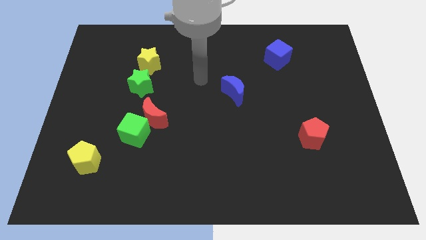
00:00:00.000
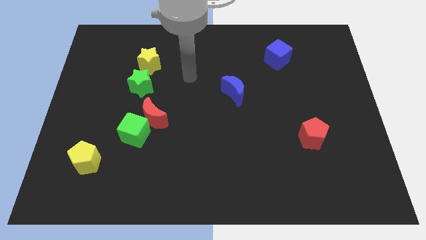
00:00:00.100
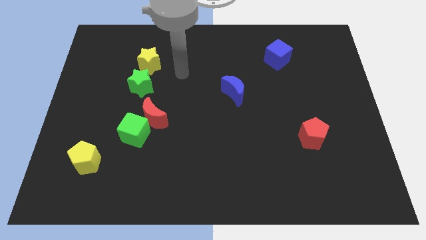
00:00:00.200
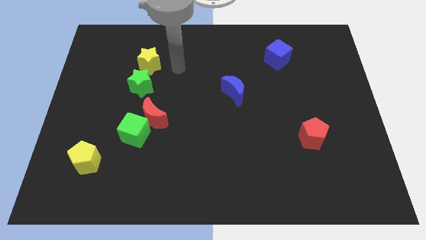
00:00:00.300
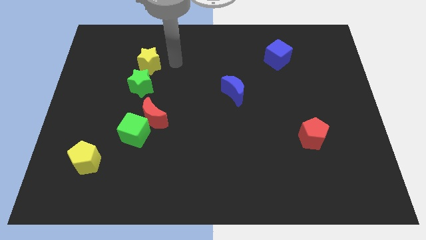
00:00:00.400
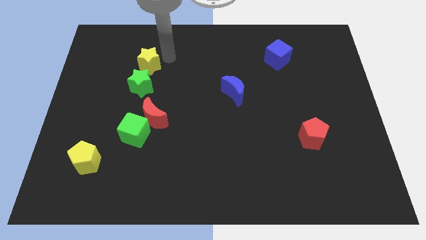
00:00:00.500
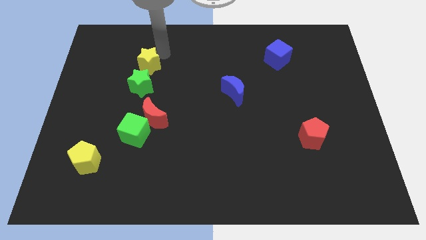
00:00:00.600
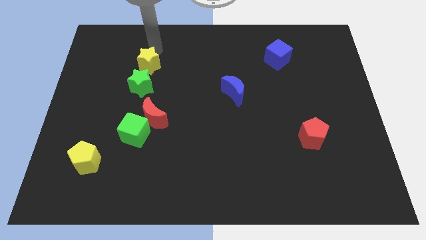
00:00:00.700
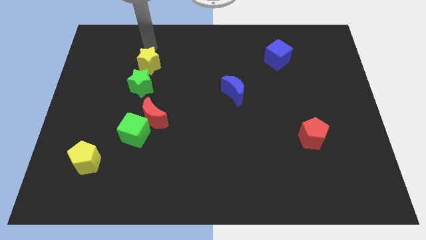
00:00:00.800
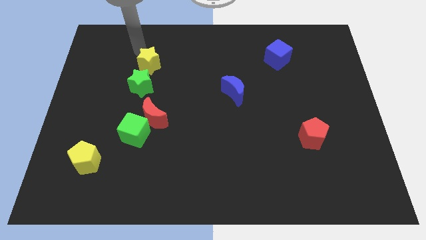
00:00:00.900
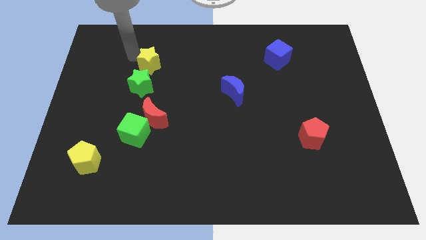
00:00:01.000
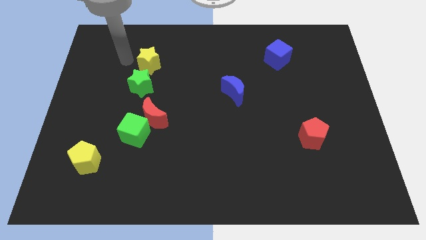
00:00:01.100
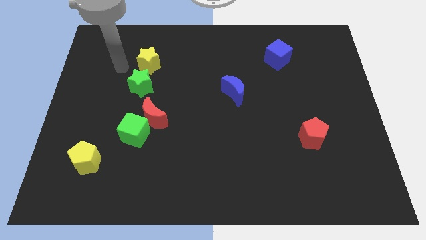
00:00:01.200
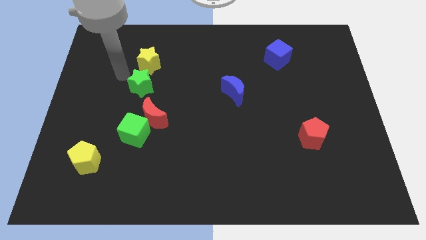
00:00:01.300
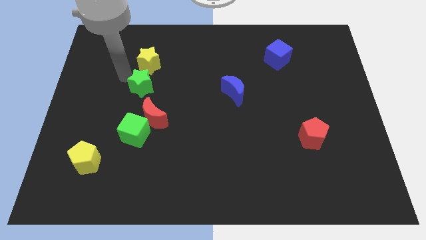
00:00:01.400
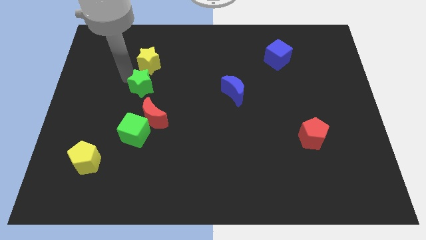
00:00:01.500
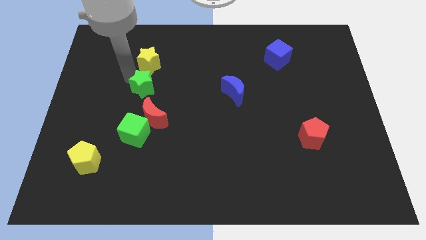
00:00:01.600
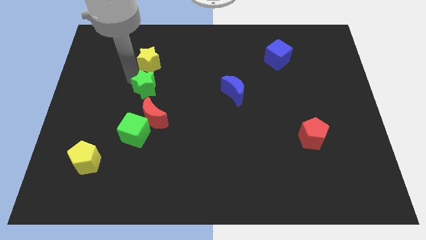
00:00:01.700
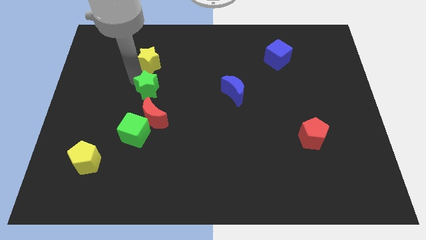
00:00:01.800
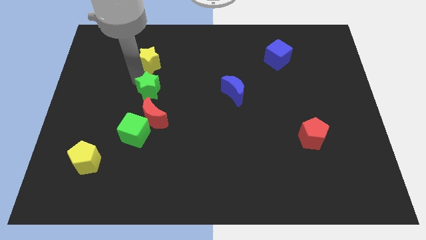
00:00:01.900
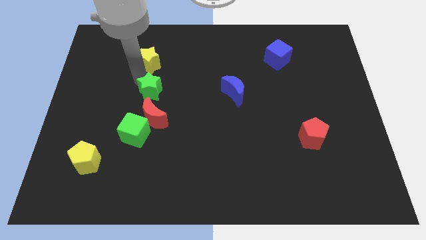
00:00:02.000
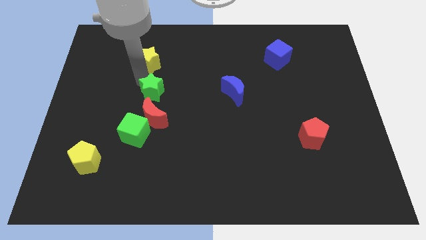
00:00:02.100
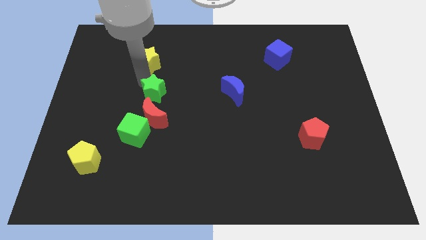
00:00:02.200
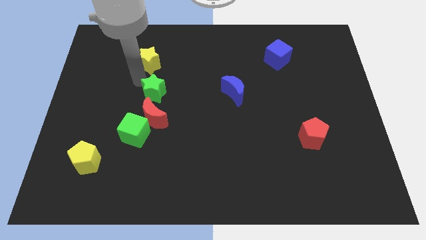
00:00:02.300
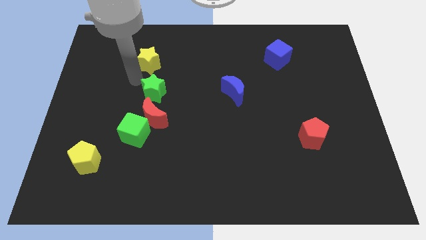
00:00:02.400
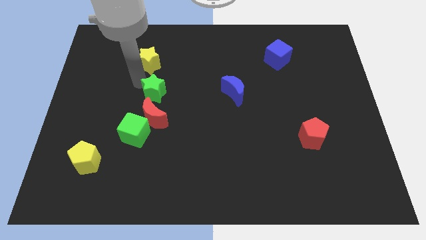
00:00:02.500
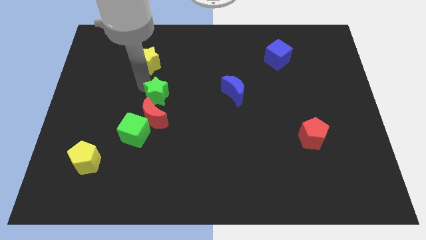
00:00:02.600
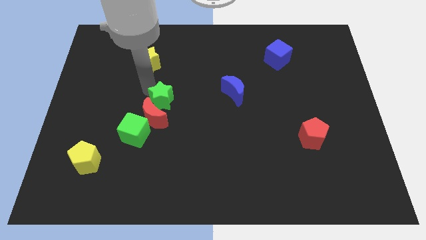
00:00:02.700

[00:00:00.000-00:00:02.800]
slightly slide the green star diagonally downwards and right

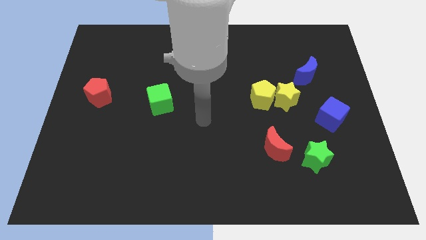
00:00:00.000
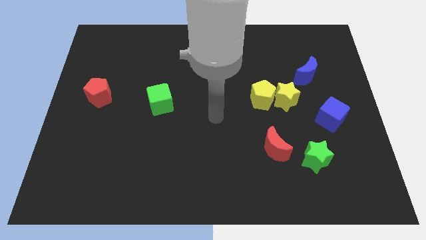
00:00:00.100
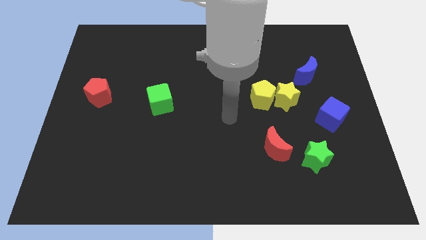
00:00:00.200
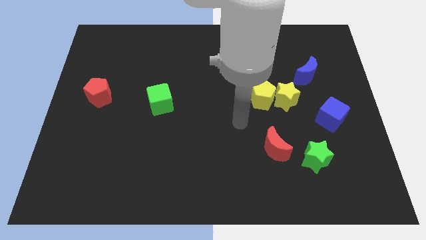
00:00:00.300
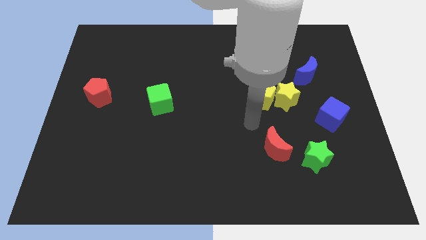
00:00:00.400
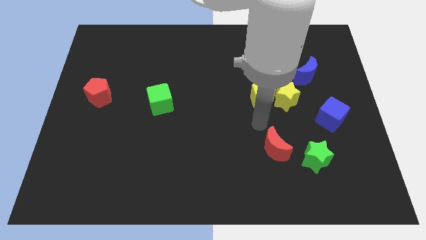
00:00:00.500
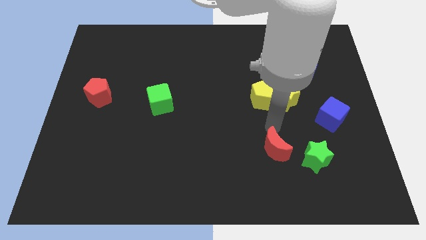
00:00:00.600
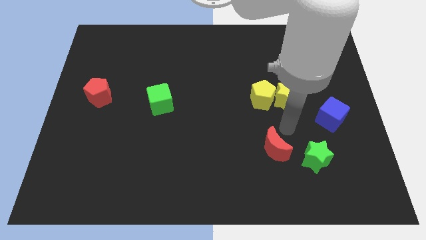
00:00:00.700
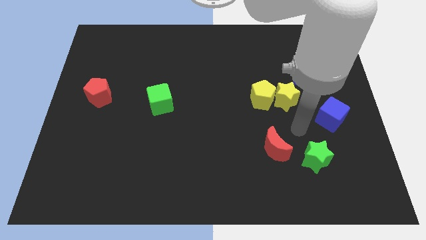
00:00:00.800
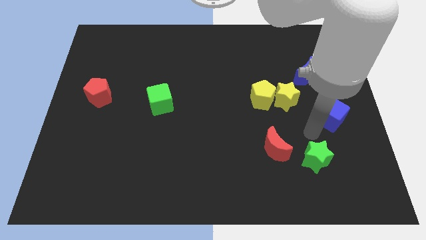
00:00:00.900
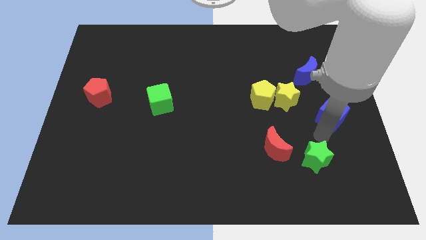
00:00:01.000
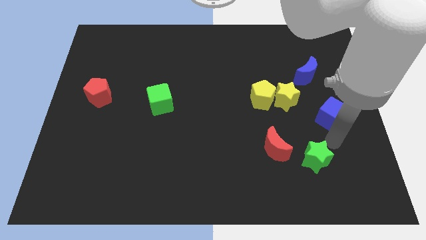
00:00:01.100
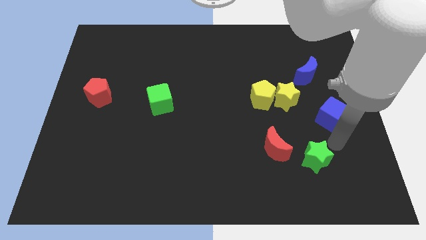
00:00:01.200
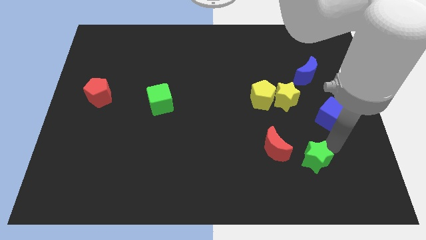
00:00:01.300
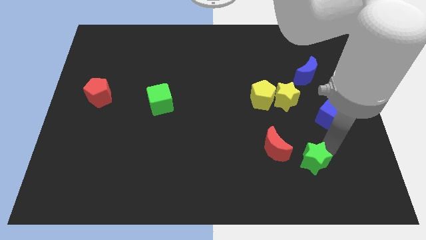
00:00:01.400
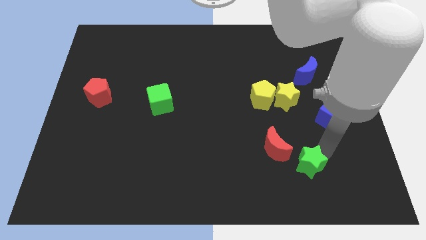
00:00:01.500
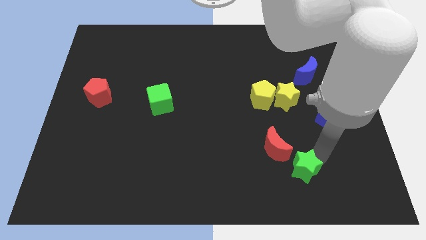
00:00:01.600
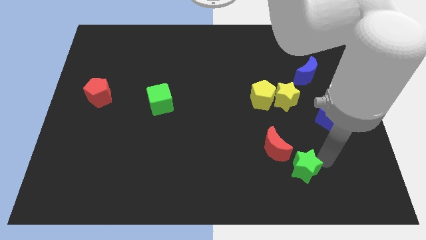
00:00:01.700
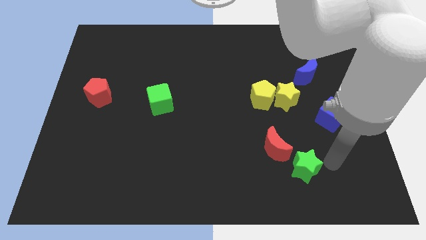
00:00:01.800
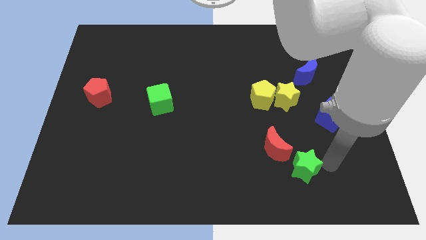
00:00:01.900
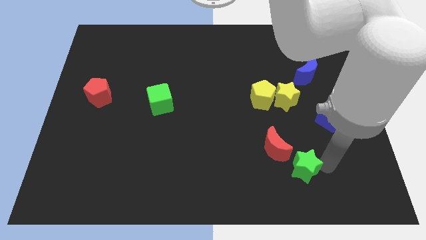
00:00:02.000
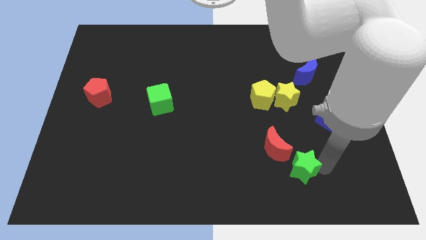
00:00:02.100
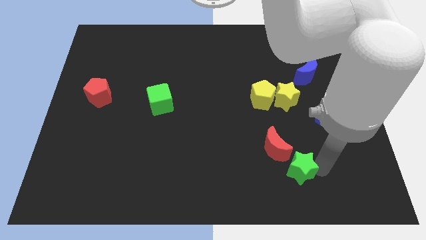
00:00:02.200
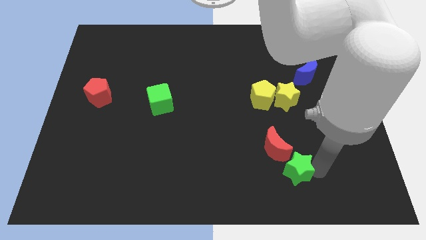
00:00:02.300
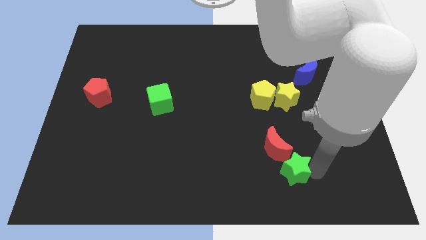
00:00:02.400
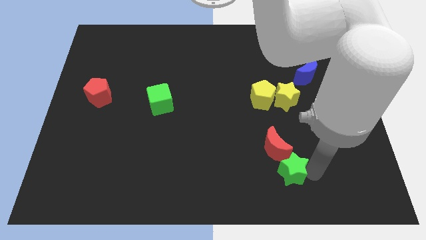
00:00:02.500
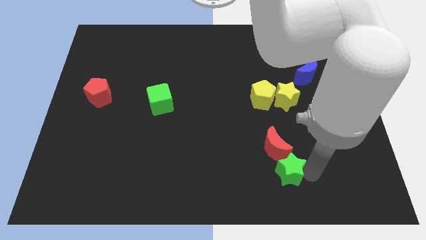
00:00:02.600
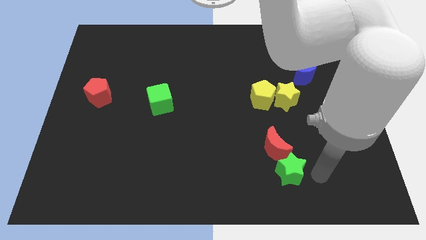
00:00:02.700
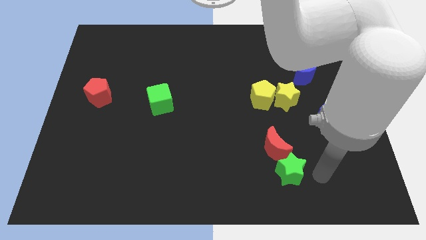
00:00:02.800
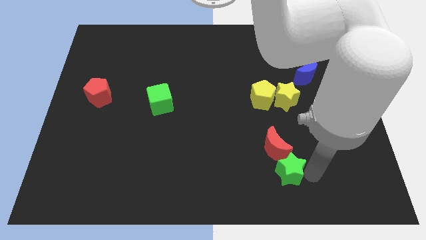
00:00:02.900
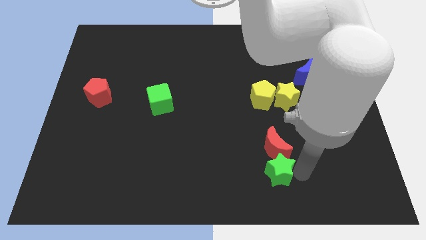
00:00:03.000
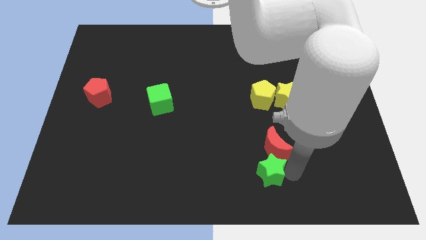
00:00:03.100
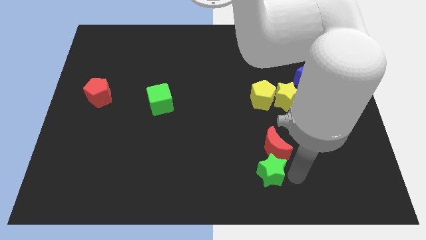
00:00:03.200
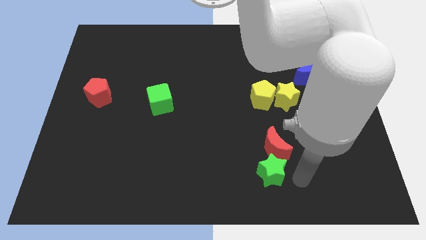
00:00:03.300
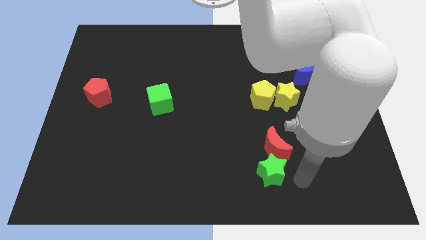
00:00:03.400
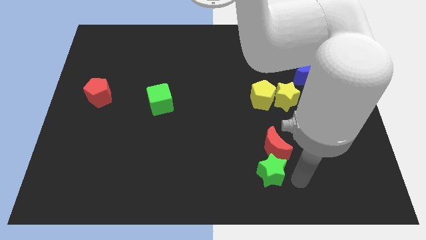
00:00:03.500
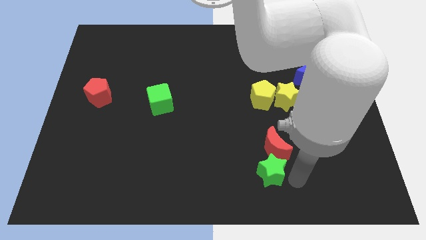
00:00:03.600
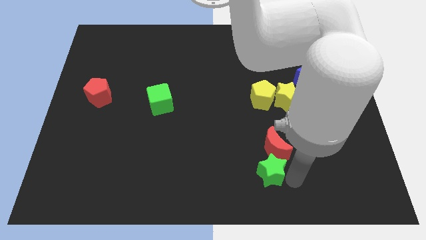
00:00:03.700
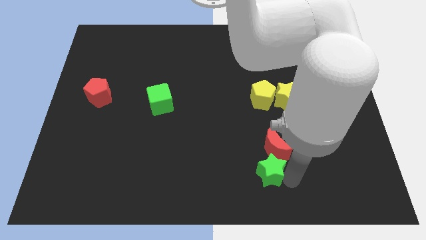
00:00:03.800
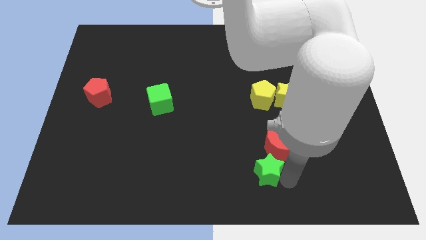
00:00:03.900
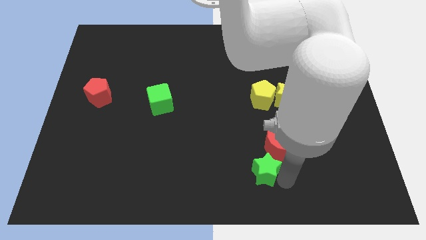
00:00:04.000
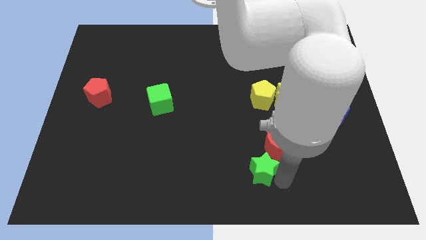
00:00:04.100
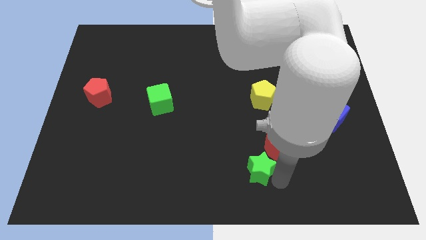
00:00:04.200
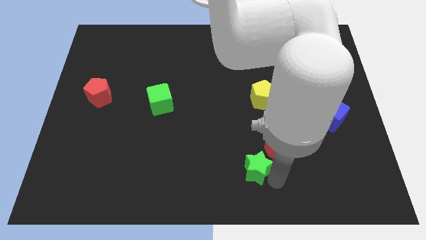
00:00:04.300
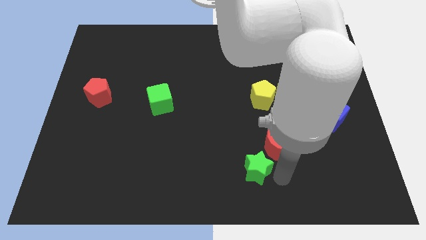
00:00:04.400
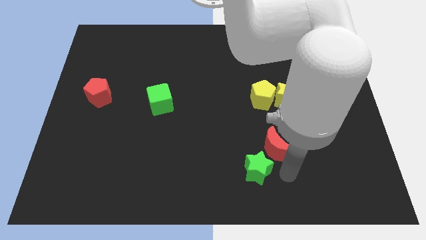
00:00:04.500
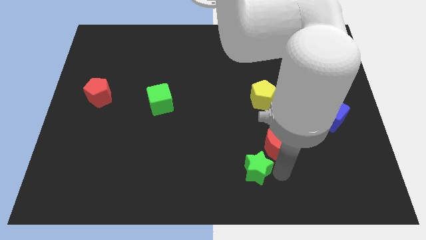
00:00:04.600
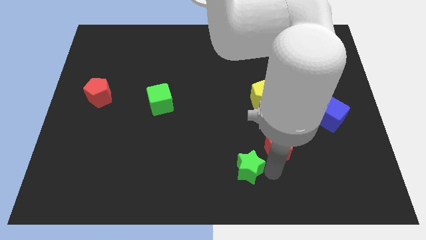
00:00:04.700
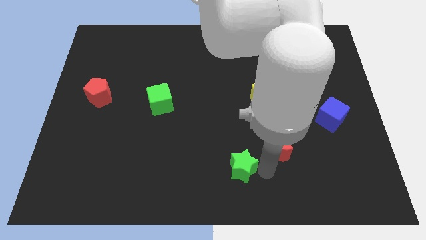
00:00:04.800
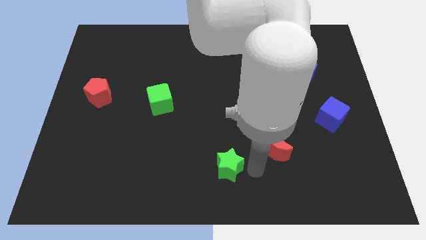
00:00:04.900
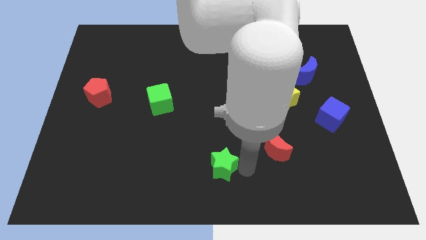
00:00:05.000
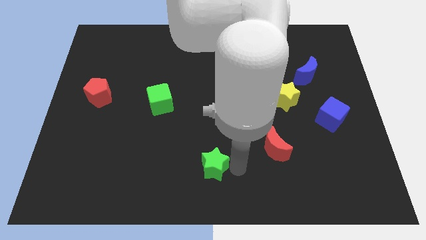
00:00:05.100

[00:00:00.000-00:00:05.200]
slide the green star left
